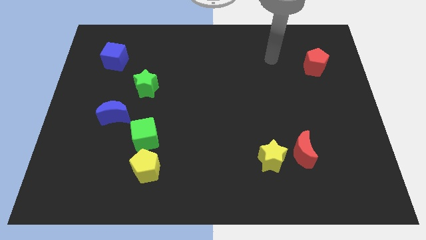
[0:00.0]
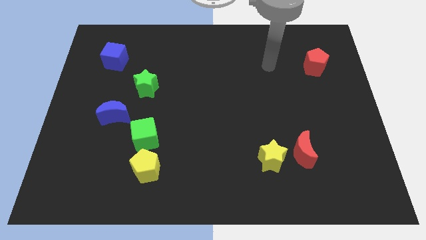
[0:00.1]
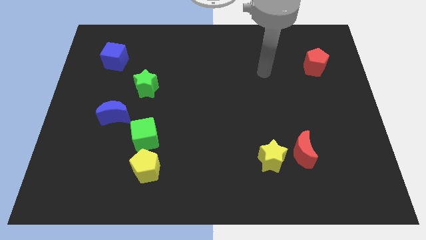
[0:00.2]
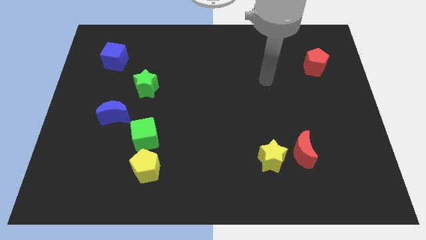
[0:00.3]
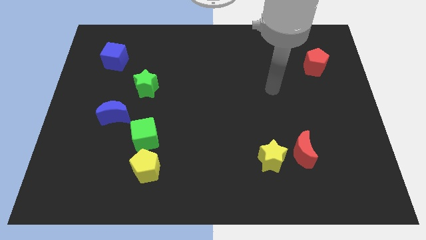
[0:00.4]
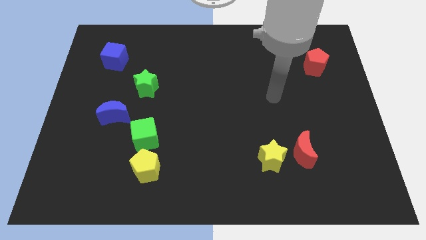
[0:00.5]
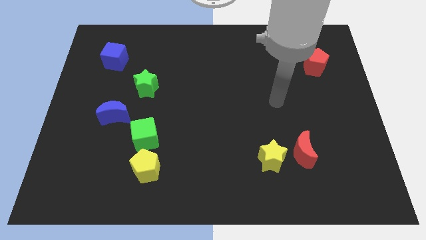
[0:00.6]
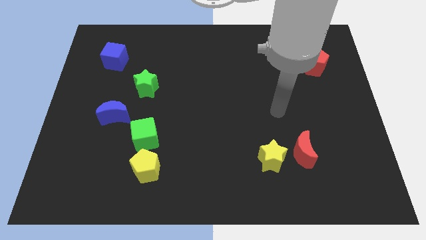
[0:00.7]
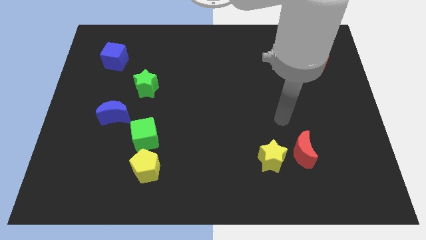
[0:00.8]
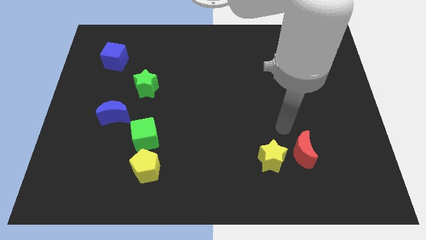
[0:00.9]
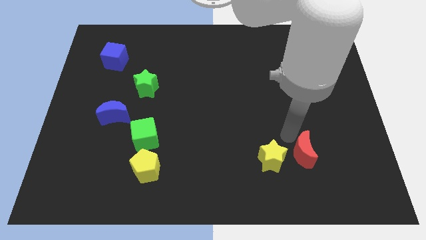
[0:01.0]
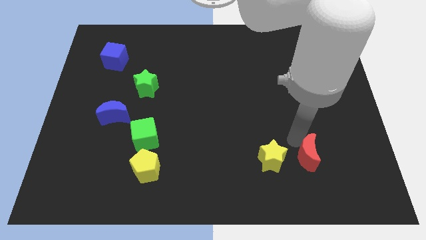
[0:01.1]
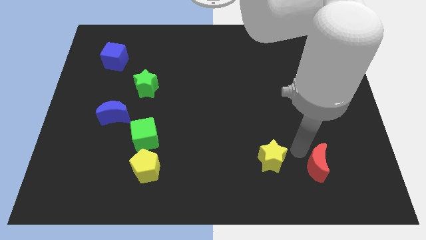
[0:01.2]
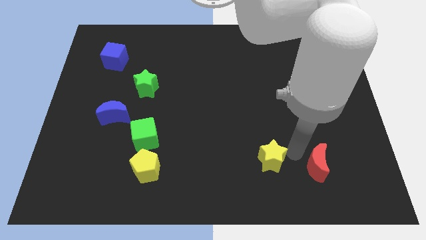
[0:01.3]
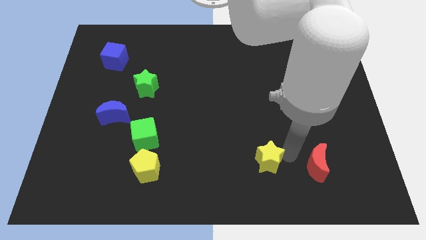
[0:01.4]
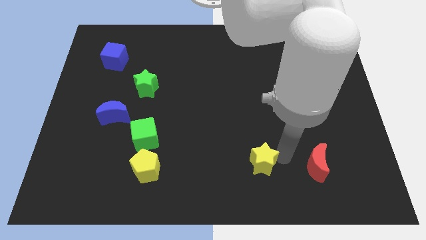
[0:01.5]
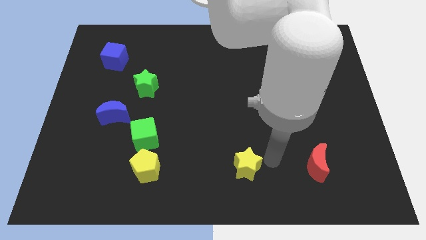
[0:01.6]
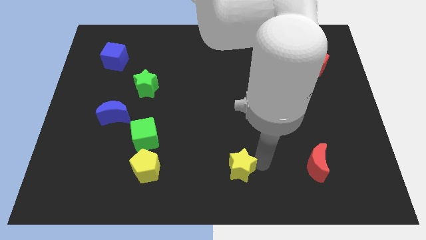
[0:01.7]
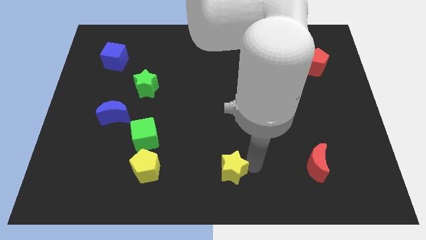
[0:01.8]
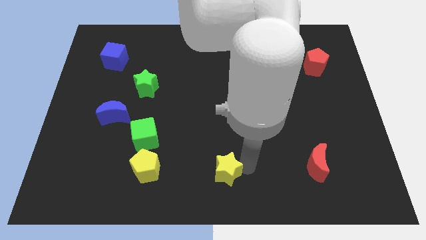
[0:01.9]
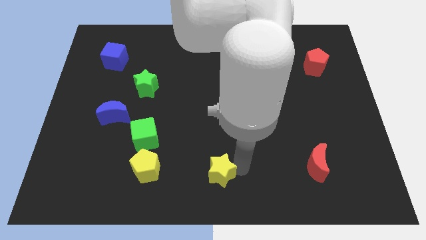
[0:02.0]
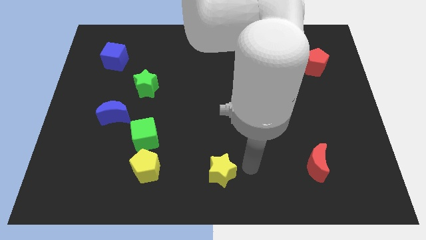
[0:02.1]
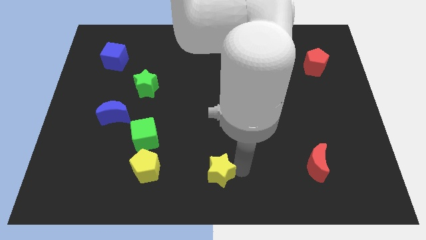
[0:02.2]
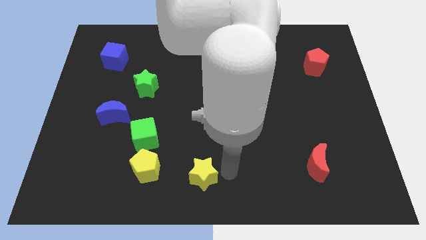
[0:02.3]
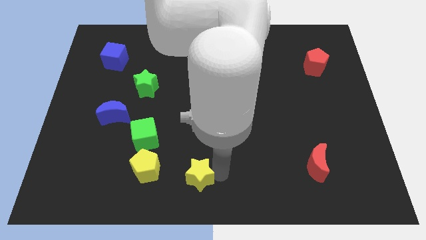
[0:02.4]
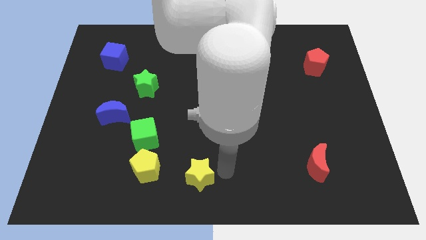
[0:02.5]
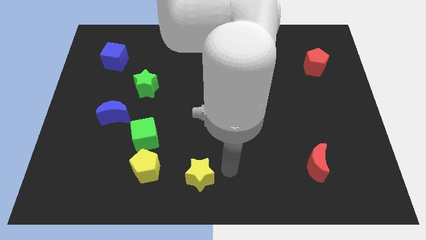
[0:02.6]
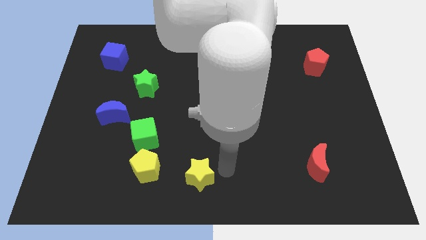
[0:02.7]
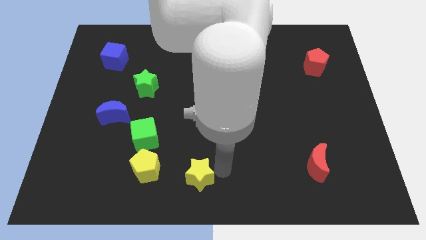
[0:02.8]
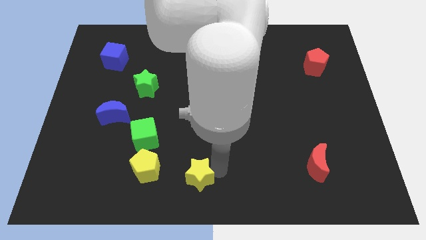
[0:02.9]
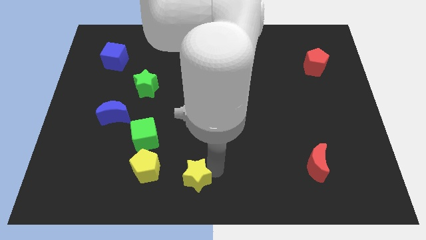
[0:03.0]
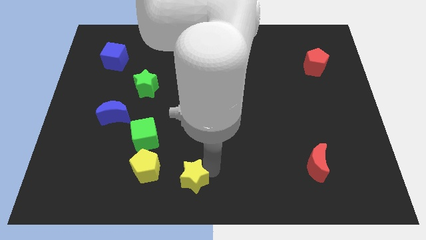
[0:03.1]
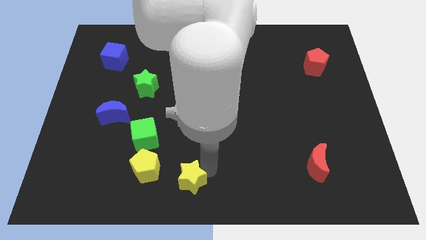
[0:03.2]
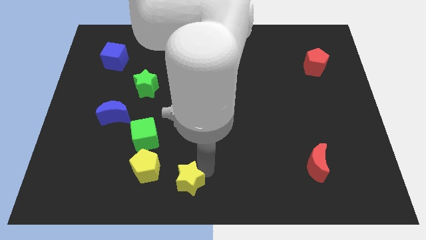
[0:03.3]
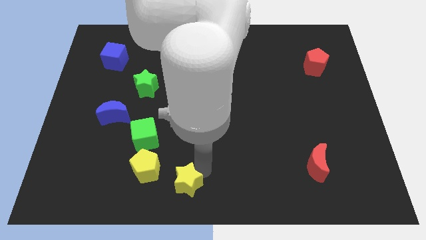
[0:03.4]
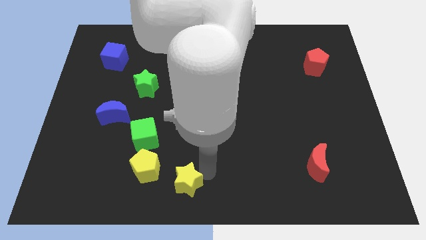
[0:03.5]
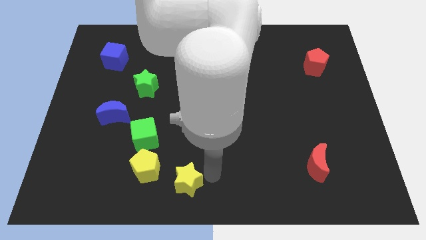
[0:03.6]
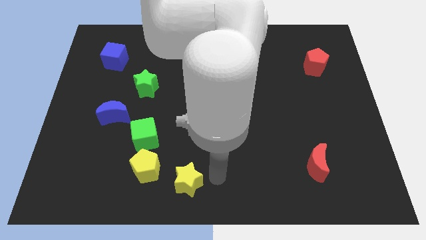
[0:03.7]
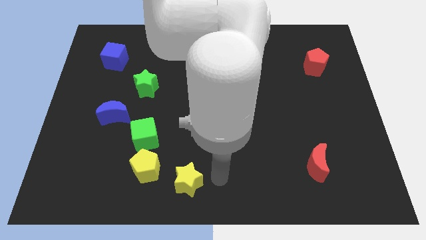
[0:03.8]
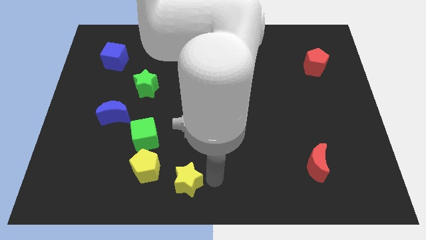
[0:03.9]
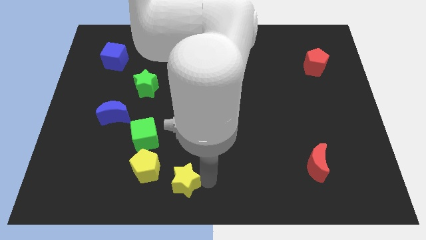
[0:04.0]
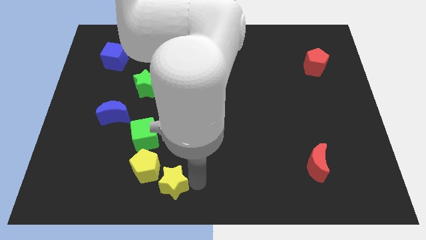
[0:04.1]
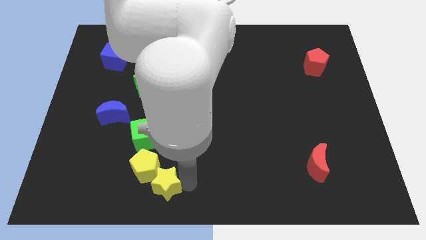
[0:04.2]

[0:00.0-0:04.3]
slide the yellow star to the left

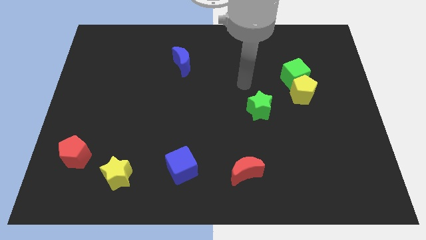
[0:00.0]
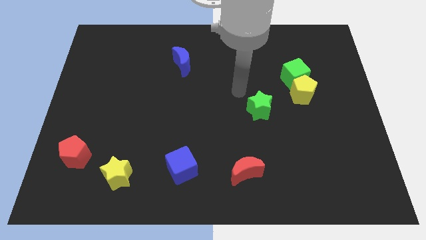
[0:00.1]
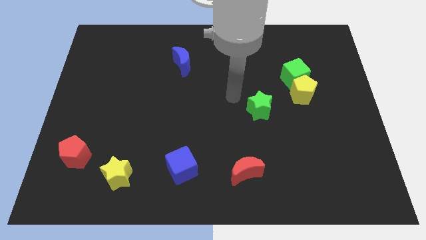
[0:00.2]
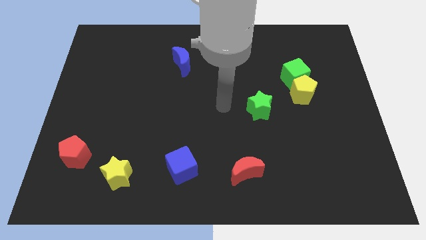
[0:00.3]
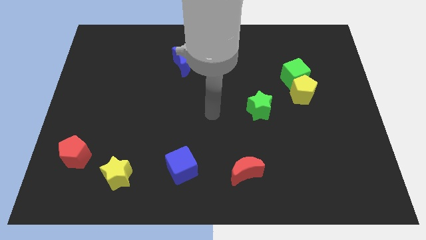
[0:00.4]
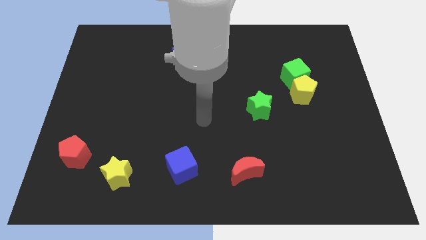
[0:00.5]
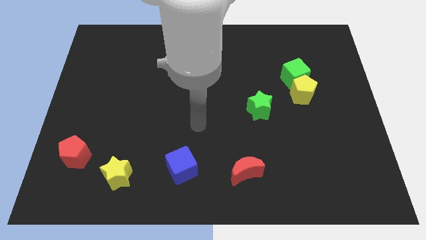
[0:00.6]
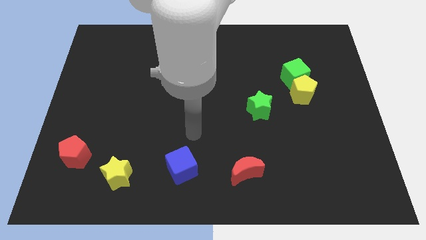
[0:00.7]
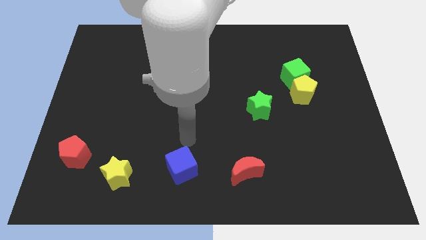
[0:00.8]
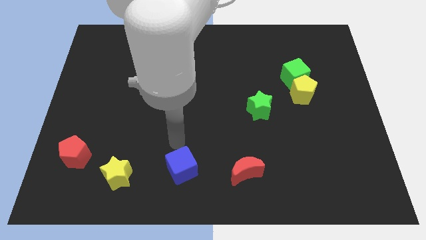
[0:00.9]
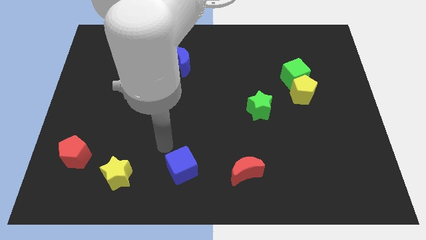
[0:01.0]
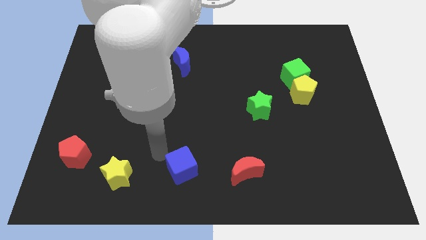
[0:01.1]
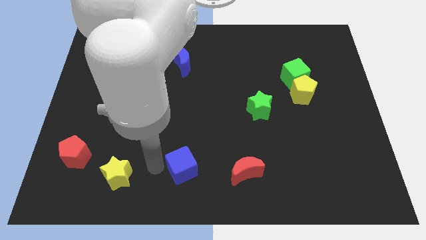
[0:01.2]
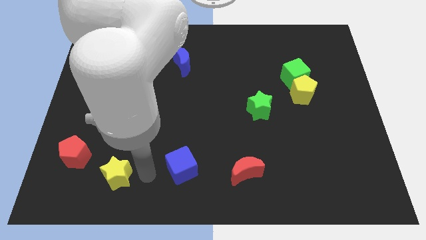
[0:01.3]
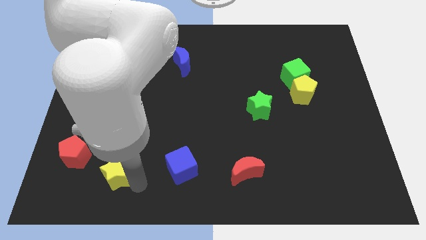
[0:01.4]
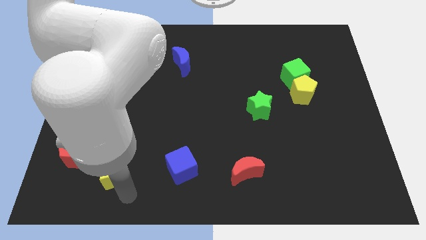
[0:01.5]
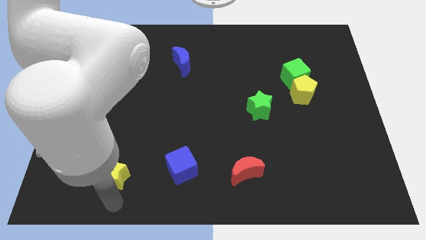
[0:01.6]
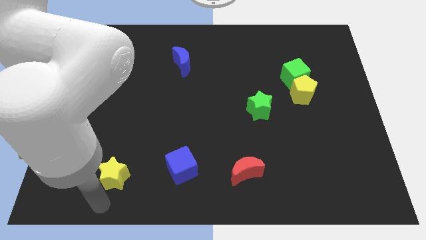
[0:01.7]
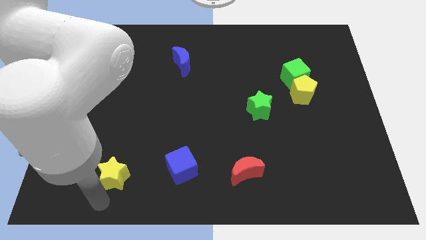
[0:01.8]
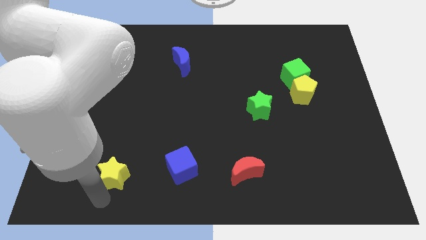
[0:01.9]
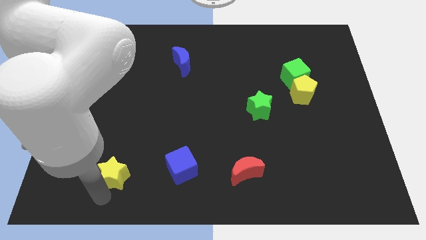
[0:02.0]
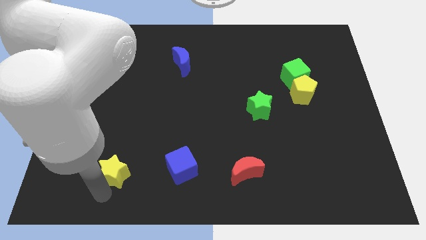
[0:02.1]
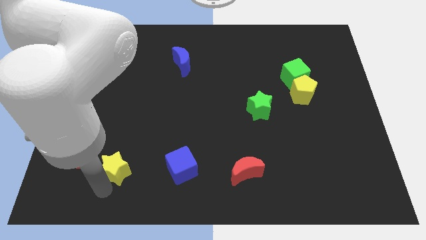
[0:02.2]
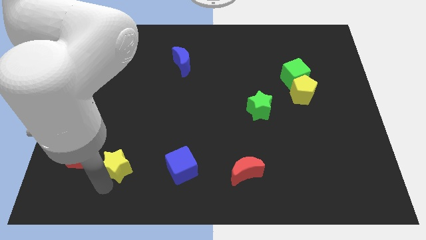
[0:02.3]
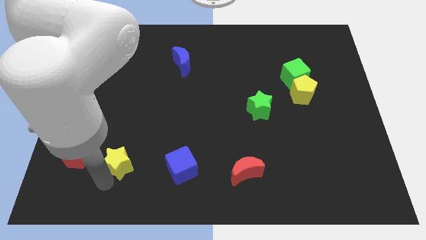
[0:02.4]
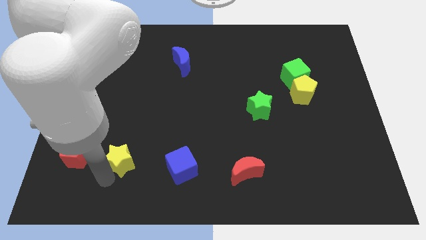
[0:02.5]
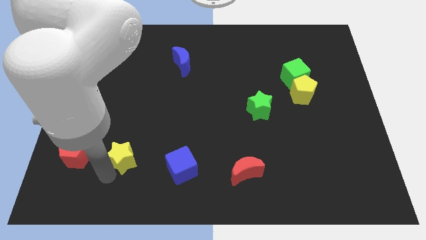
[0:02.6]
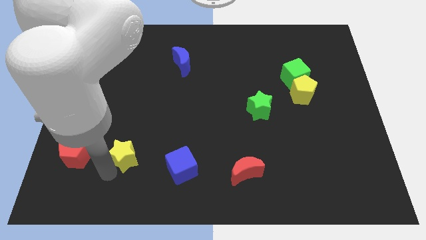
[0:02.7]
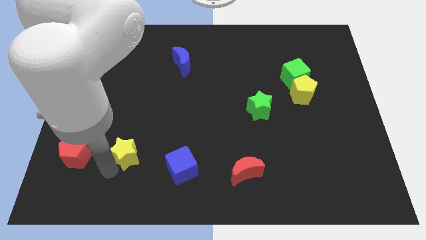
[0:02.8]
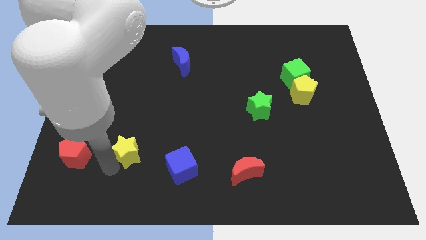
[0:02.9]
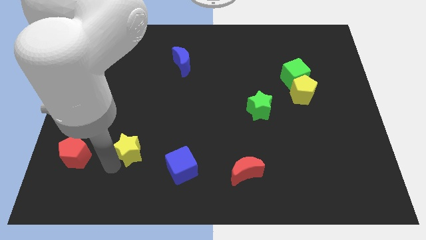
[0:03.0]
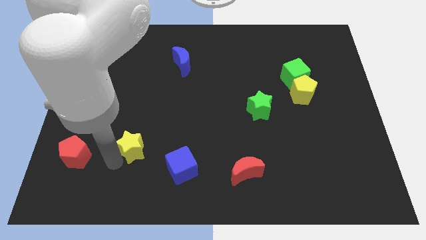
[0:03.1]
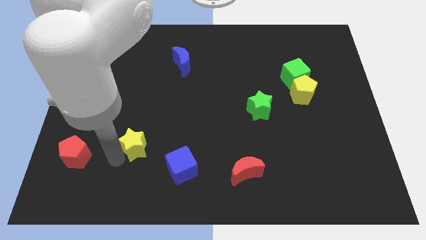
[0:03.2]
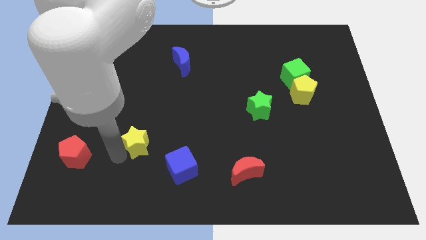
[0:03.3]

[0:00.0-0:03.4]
slightly push the yellow star upwards and then to the right

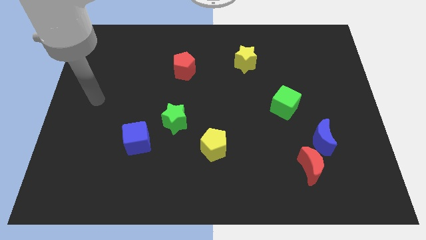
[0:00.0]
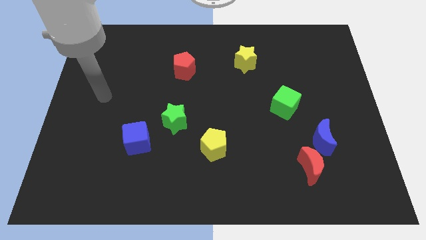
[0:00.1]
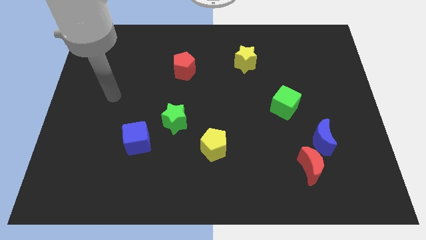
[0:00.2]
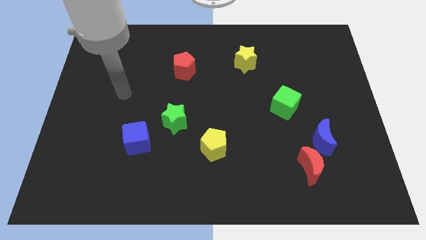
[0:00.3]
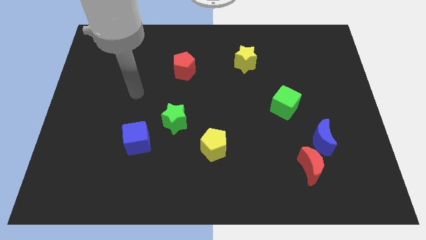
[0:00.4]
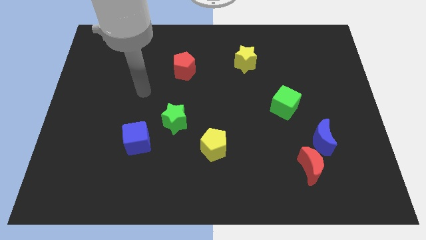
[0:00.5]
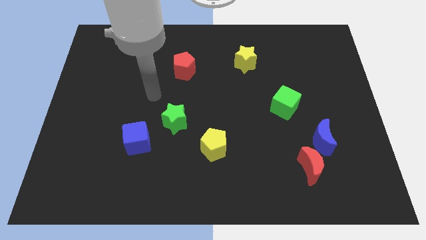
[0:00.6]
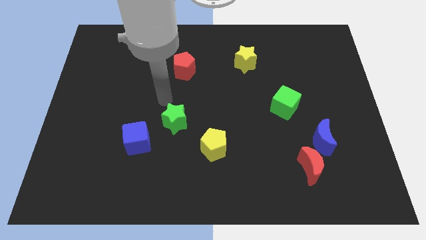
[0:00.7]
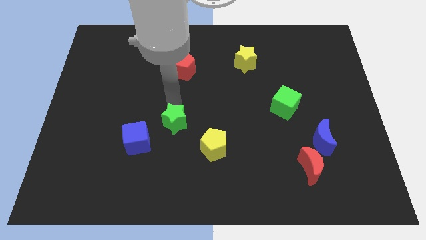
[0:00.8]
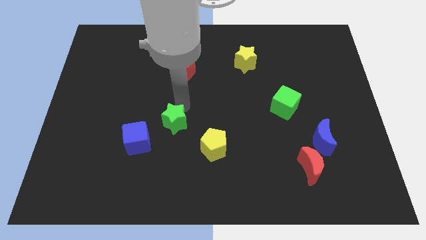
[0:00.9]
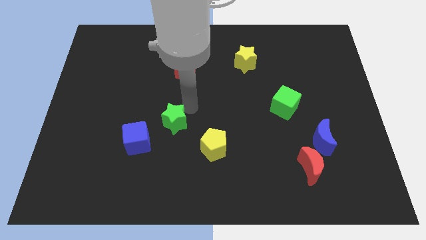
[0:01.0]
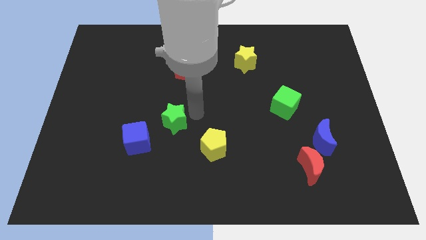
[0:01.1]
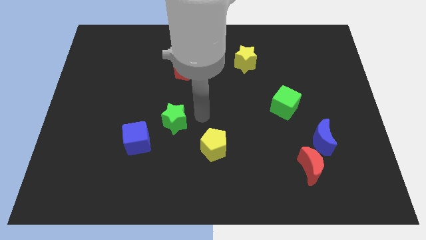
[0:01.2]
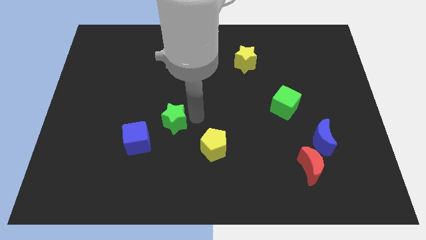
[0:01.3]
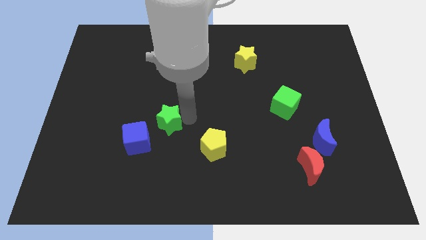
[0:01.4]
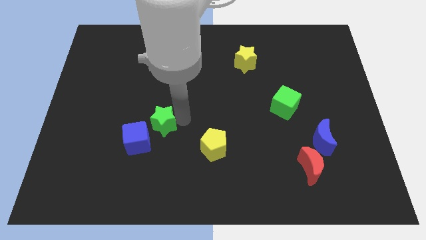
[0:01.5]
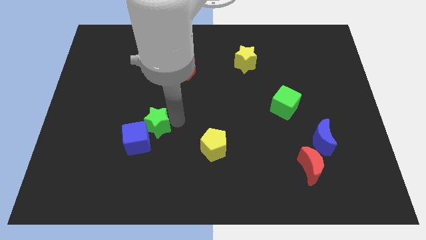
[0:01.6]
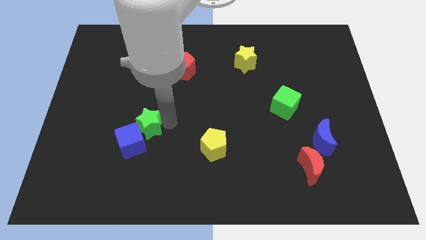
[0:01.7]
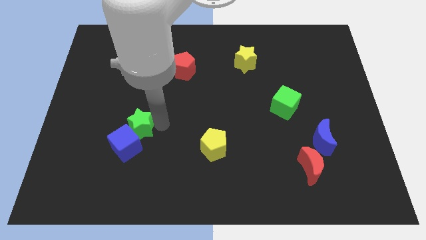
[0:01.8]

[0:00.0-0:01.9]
move the green star a bit left
